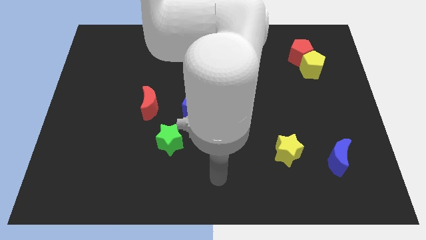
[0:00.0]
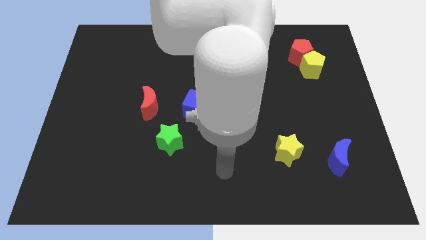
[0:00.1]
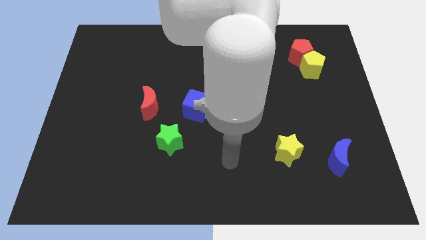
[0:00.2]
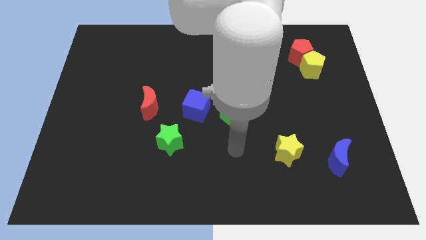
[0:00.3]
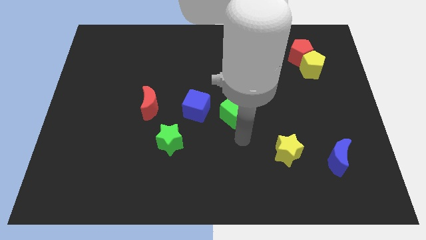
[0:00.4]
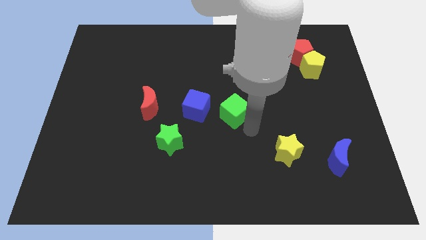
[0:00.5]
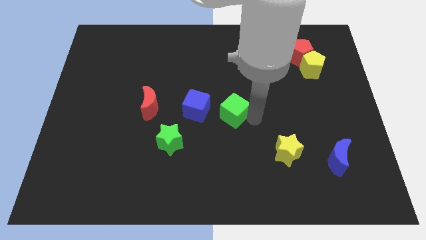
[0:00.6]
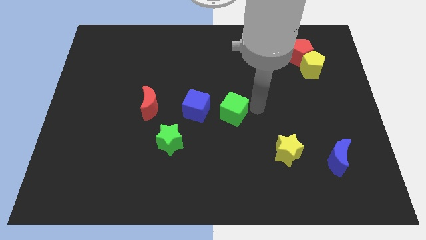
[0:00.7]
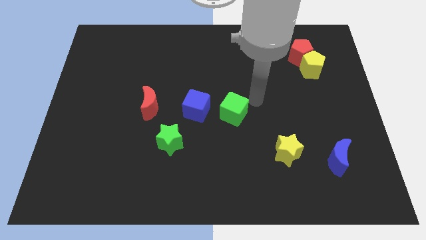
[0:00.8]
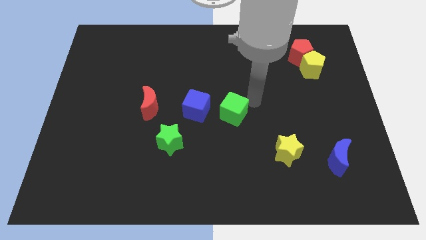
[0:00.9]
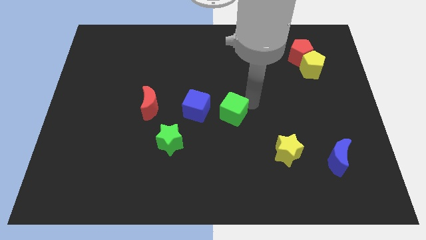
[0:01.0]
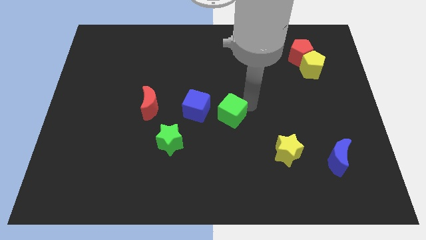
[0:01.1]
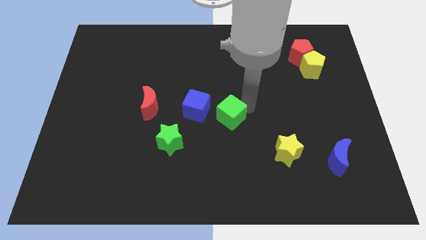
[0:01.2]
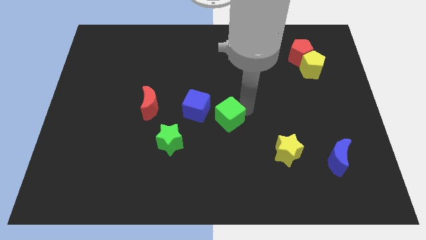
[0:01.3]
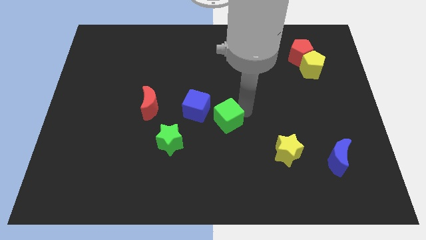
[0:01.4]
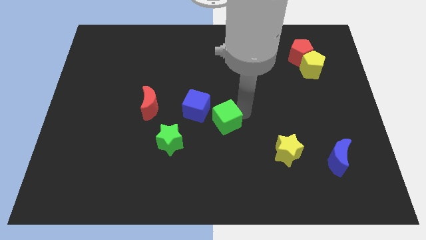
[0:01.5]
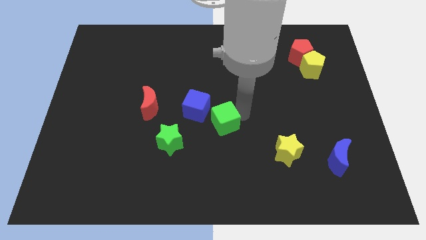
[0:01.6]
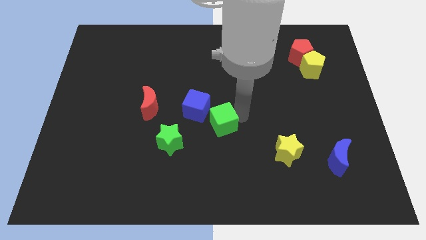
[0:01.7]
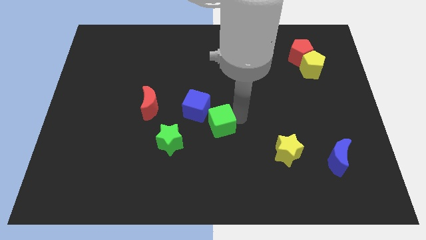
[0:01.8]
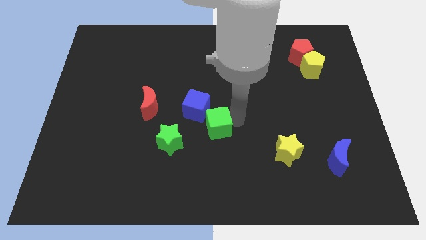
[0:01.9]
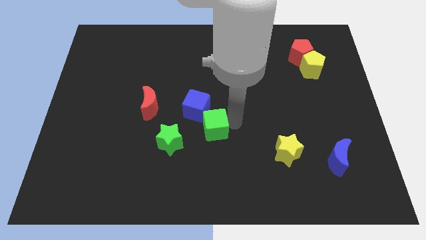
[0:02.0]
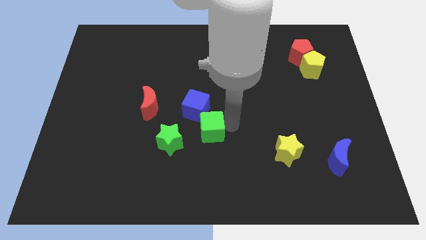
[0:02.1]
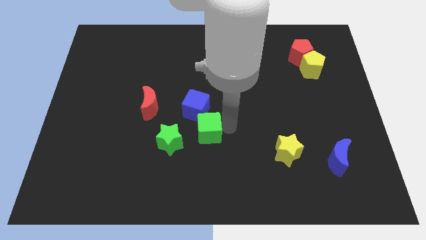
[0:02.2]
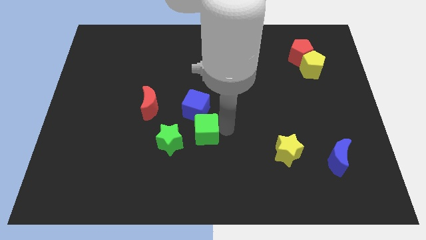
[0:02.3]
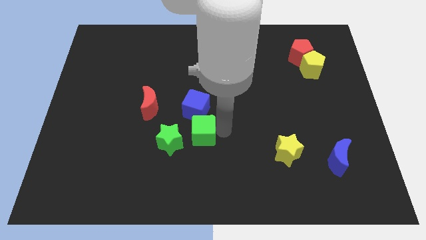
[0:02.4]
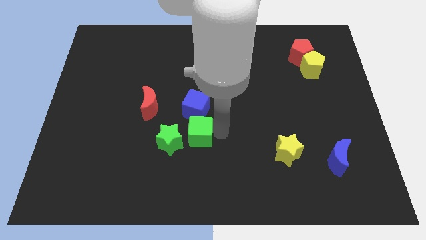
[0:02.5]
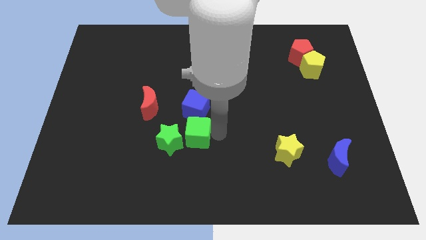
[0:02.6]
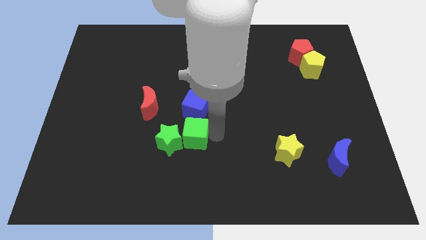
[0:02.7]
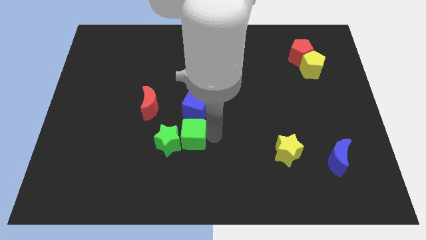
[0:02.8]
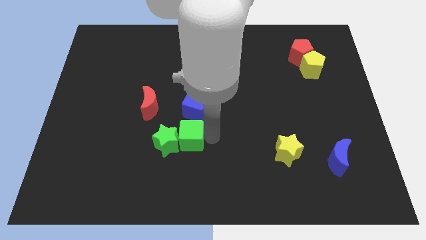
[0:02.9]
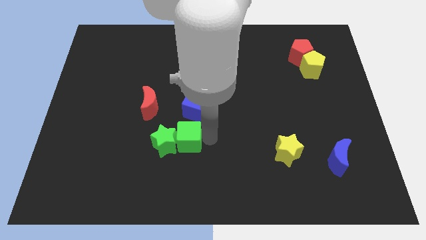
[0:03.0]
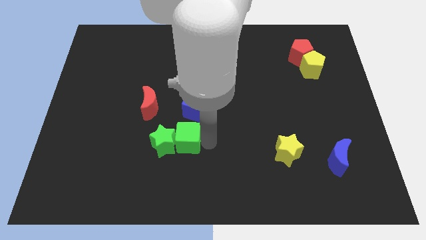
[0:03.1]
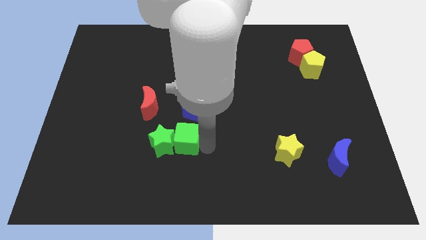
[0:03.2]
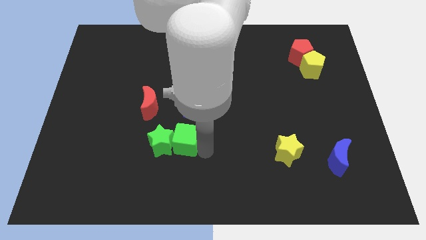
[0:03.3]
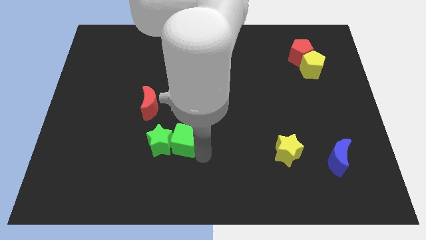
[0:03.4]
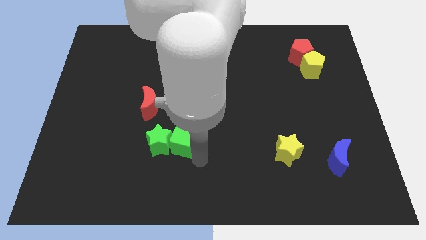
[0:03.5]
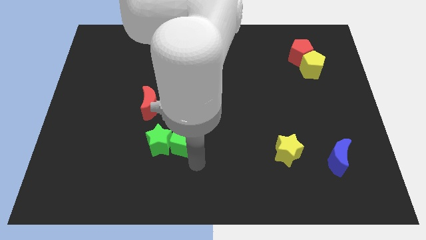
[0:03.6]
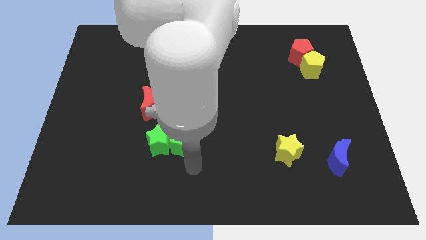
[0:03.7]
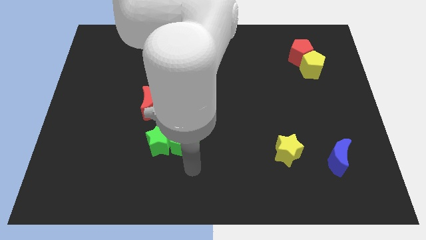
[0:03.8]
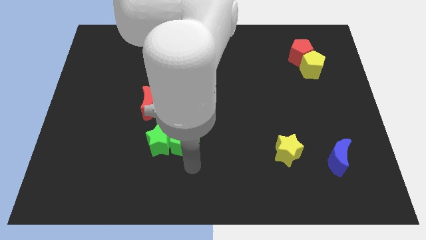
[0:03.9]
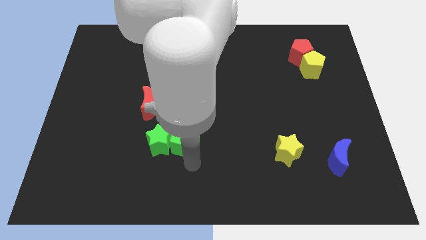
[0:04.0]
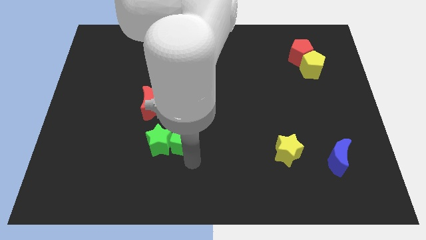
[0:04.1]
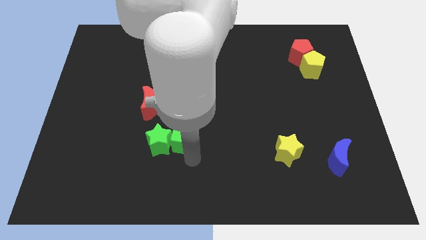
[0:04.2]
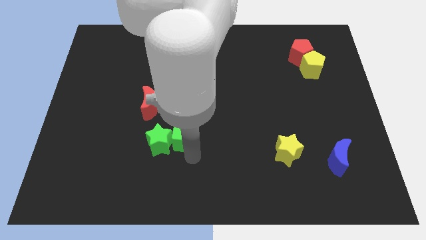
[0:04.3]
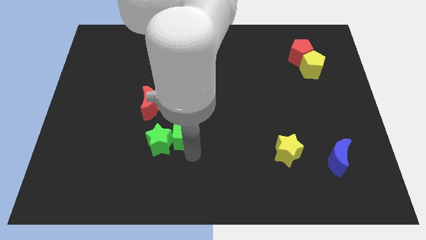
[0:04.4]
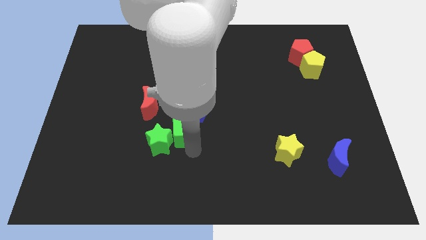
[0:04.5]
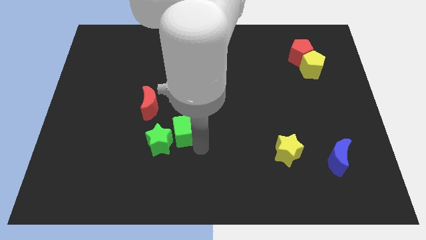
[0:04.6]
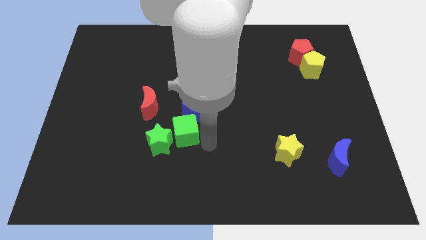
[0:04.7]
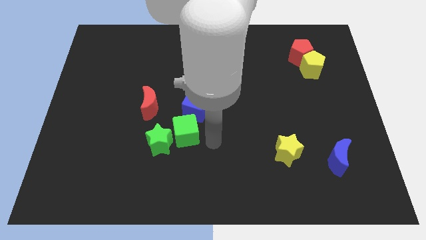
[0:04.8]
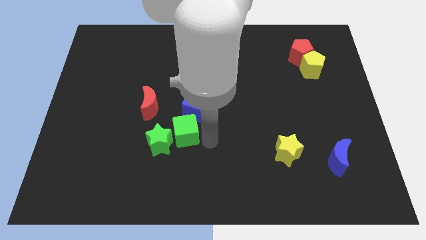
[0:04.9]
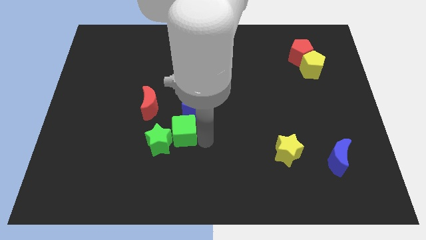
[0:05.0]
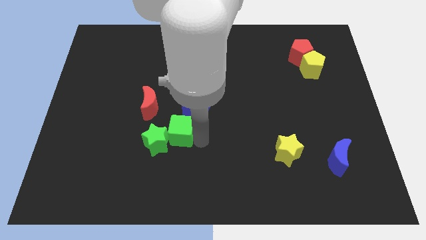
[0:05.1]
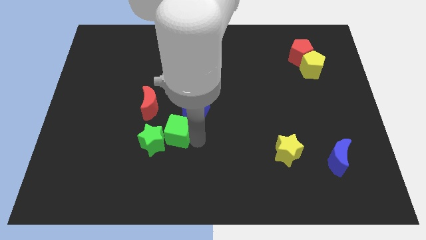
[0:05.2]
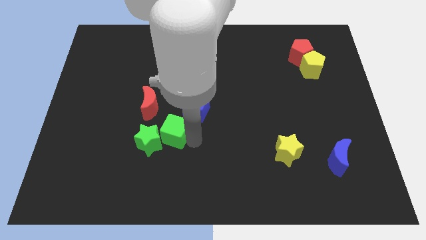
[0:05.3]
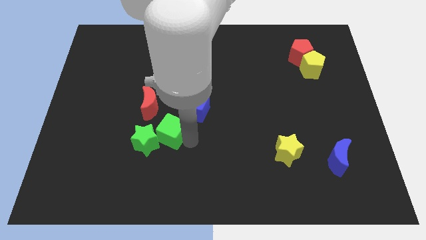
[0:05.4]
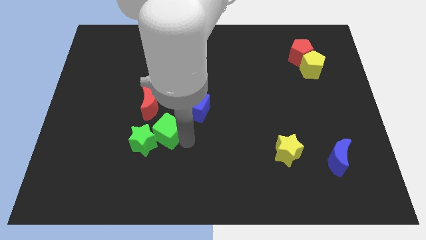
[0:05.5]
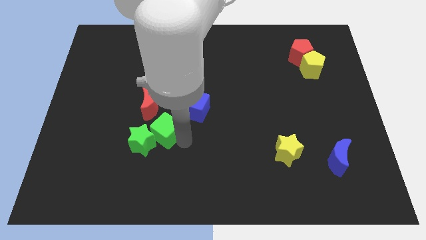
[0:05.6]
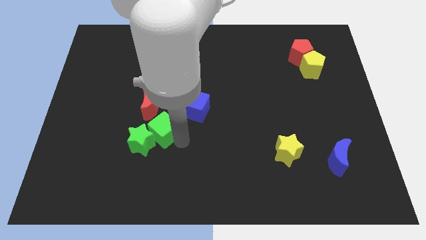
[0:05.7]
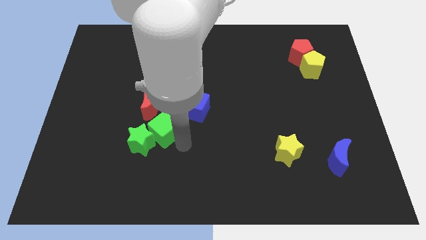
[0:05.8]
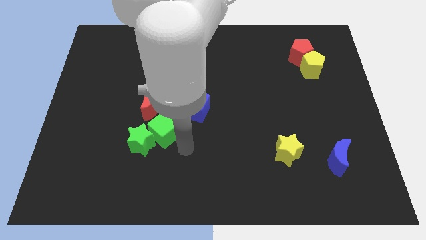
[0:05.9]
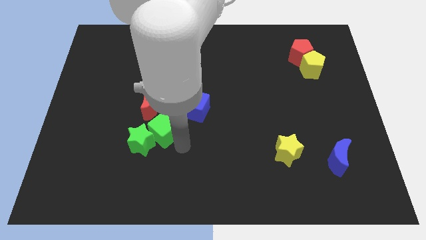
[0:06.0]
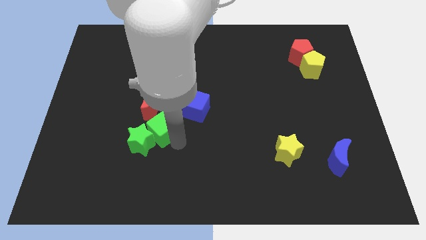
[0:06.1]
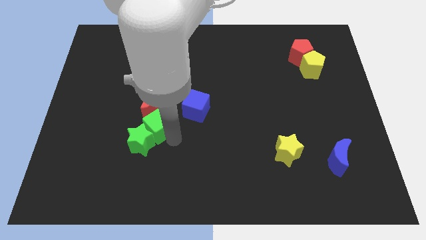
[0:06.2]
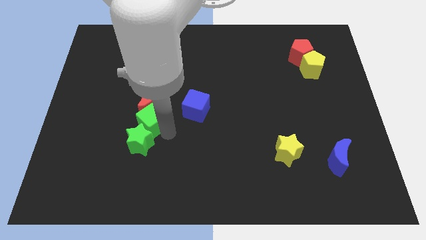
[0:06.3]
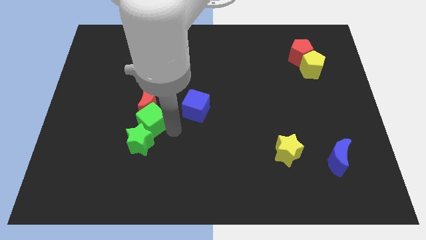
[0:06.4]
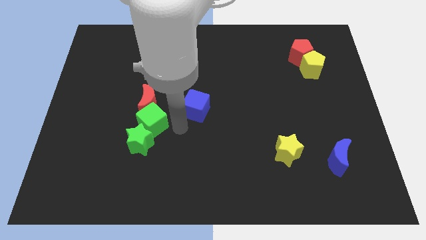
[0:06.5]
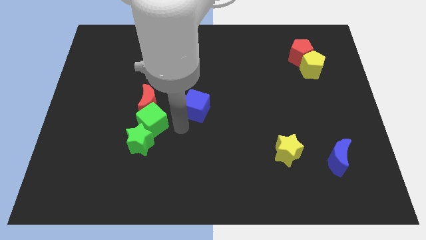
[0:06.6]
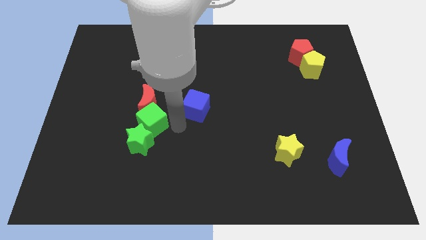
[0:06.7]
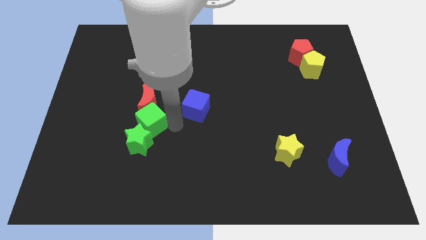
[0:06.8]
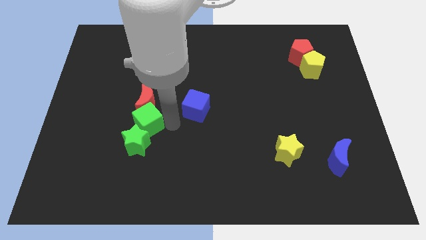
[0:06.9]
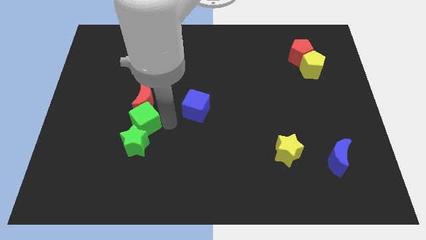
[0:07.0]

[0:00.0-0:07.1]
move the green cube to the left

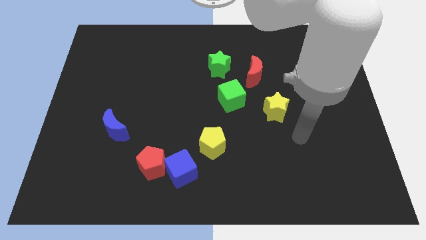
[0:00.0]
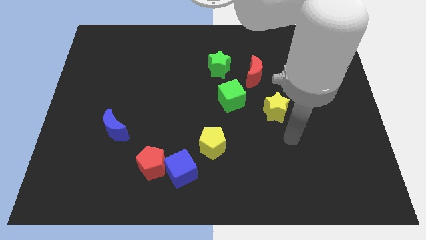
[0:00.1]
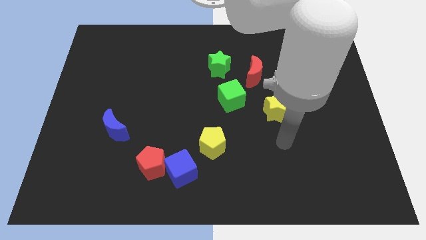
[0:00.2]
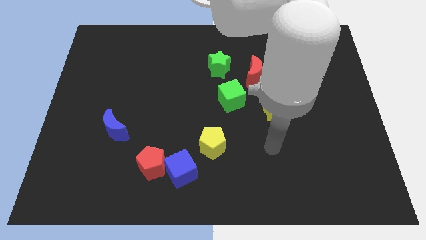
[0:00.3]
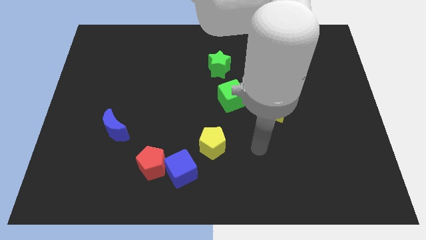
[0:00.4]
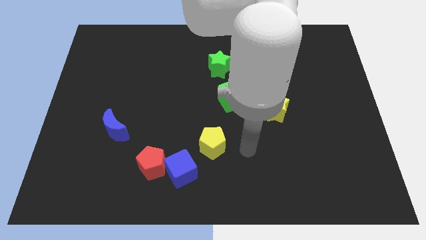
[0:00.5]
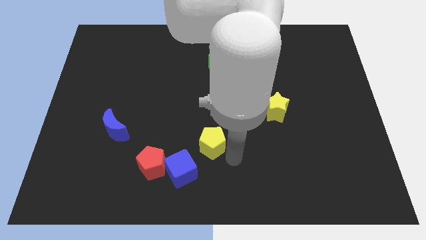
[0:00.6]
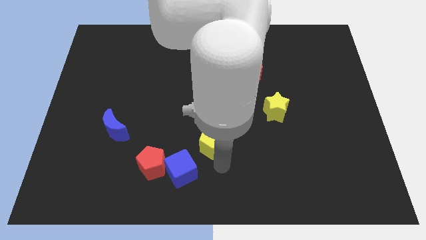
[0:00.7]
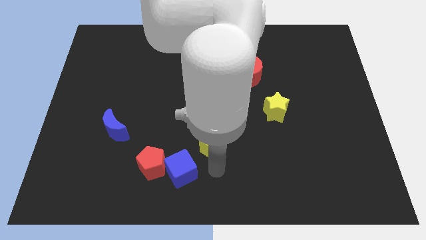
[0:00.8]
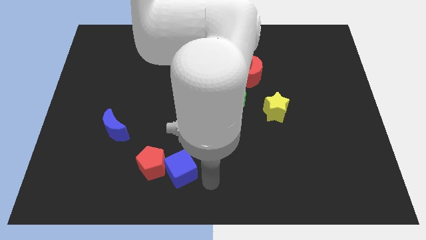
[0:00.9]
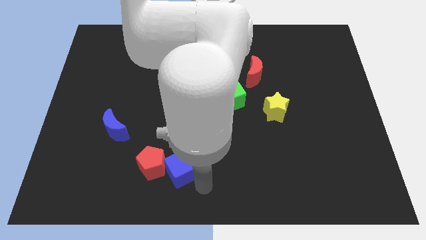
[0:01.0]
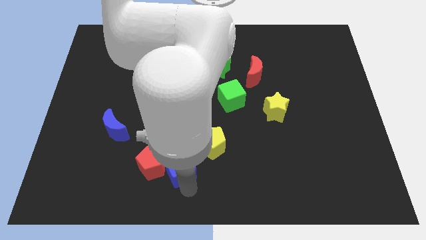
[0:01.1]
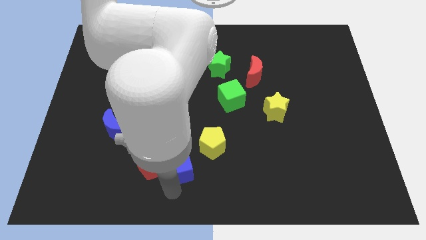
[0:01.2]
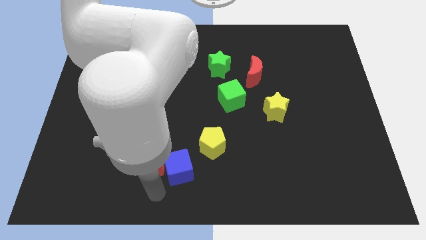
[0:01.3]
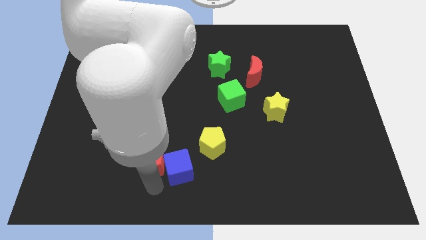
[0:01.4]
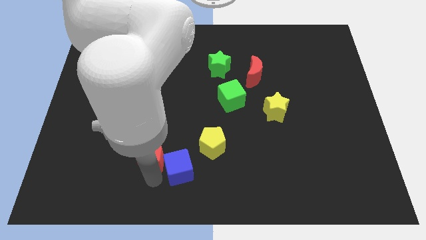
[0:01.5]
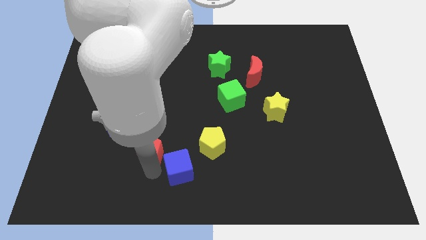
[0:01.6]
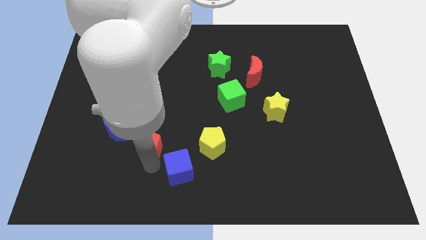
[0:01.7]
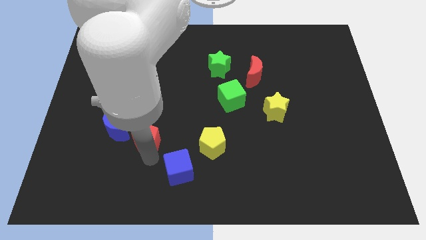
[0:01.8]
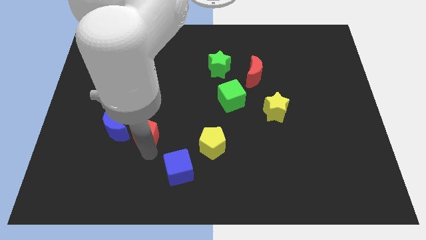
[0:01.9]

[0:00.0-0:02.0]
slightly slide the red pentagon up
